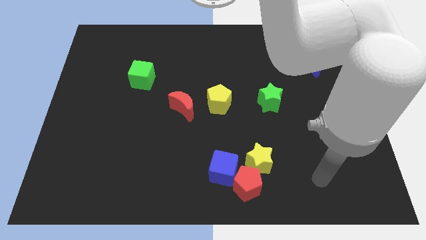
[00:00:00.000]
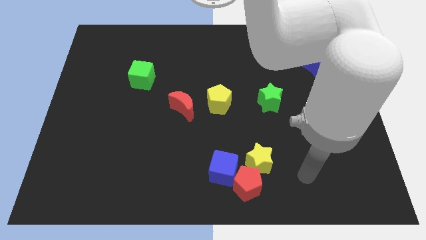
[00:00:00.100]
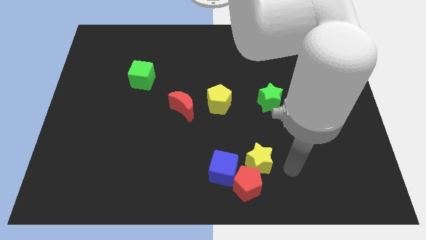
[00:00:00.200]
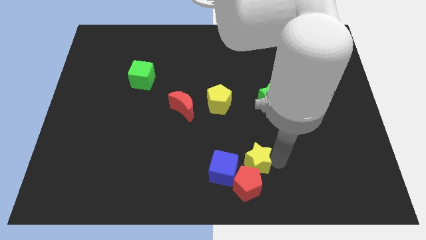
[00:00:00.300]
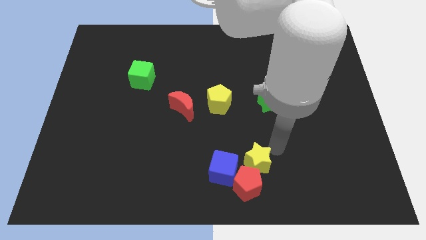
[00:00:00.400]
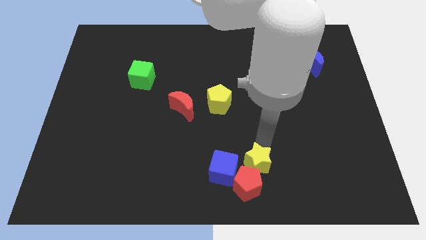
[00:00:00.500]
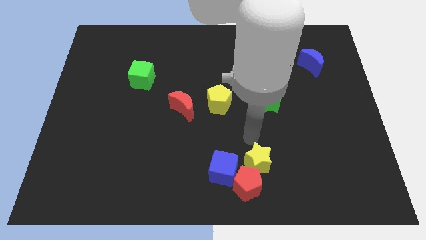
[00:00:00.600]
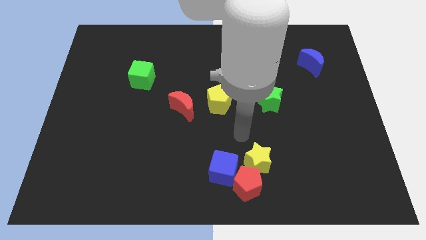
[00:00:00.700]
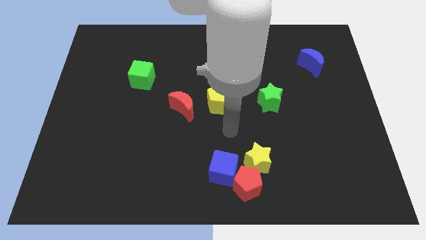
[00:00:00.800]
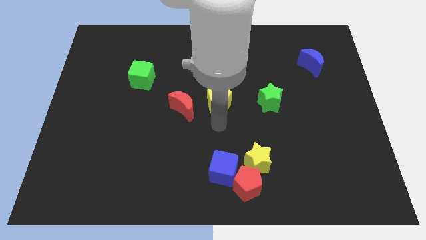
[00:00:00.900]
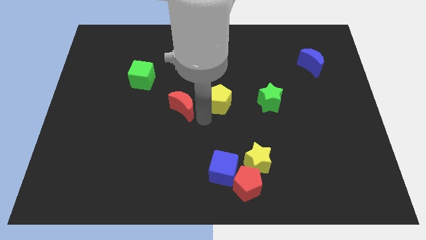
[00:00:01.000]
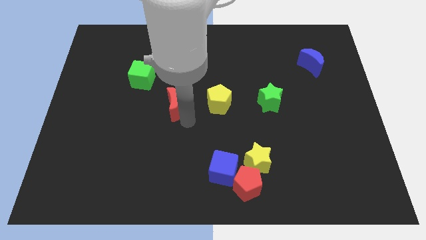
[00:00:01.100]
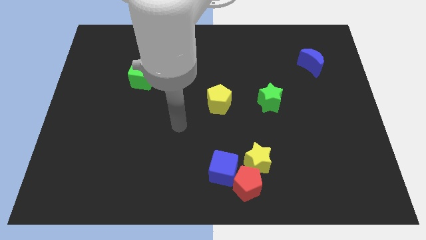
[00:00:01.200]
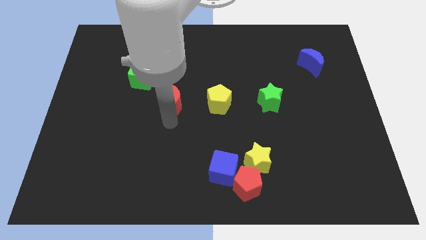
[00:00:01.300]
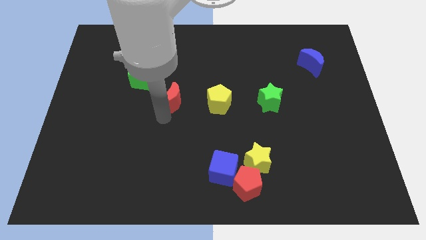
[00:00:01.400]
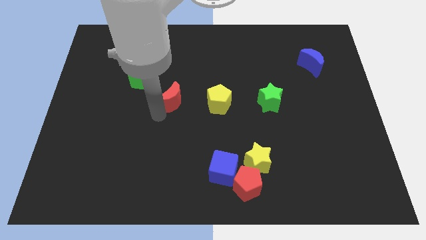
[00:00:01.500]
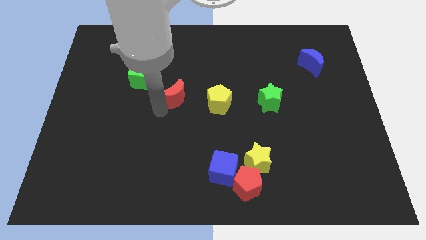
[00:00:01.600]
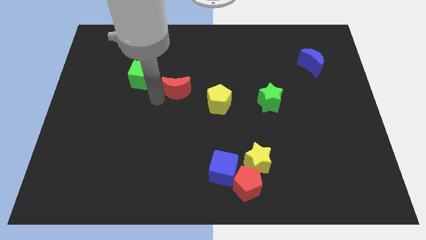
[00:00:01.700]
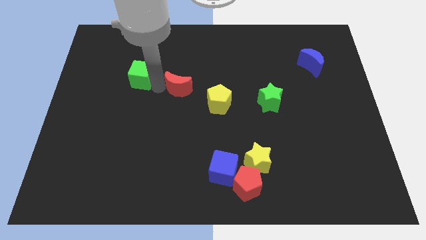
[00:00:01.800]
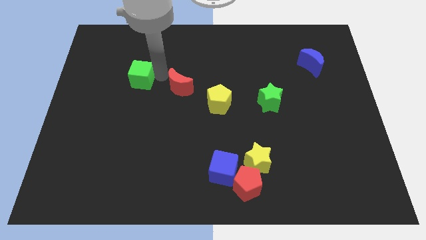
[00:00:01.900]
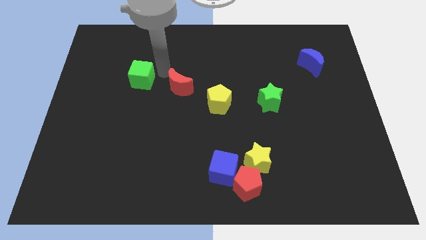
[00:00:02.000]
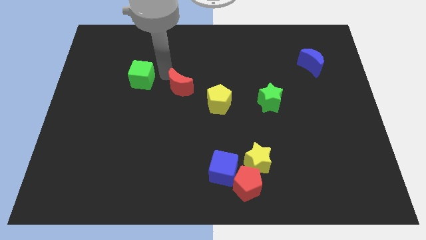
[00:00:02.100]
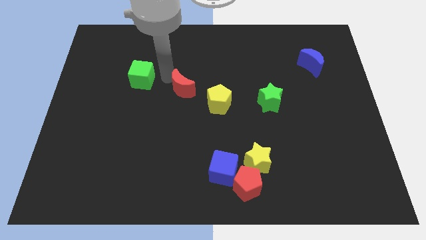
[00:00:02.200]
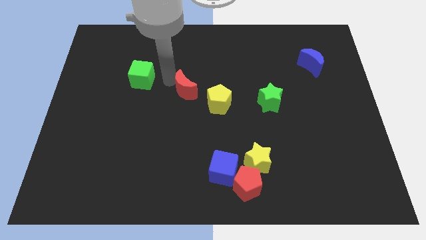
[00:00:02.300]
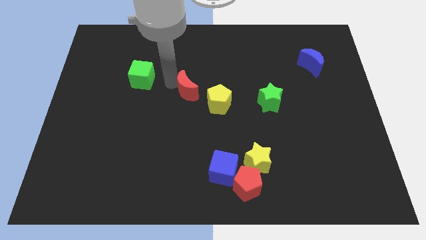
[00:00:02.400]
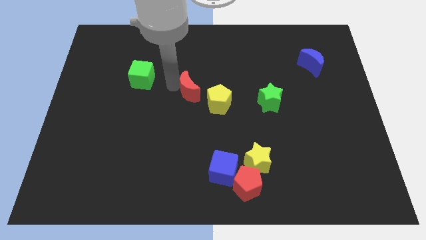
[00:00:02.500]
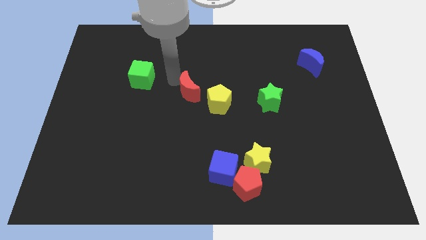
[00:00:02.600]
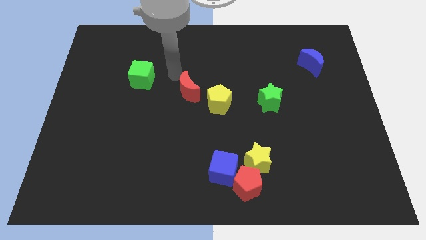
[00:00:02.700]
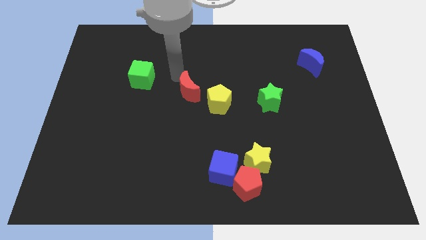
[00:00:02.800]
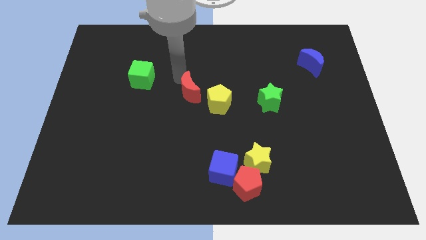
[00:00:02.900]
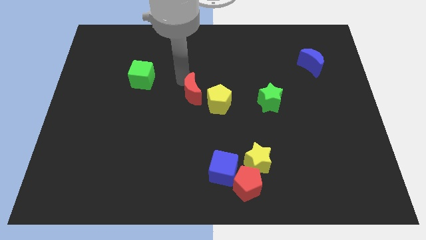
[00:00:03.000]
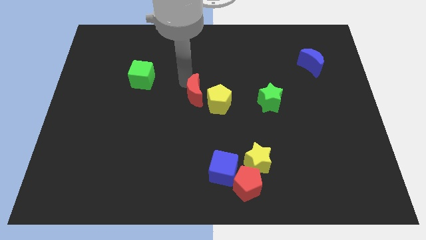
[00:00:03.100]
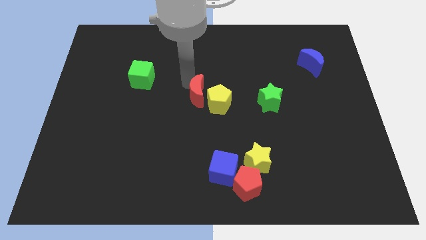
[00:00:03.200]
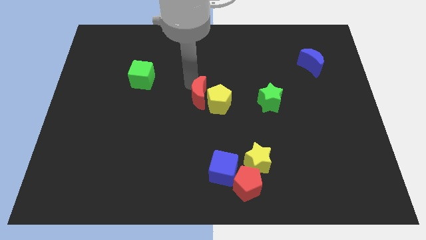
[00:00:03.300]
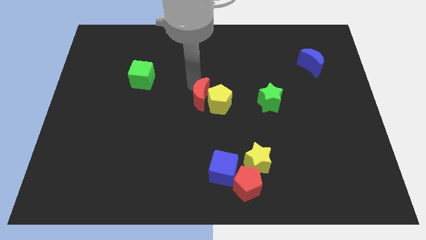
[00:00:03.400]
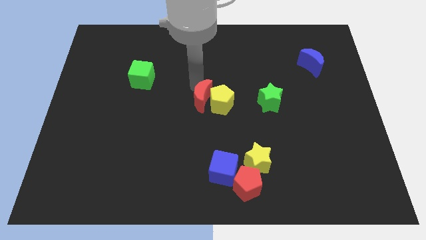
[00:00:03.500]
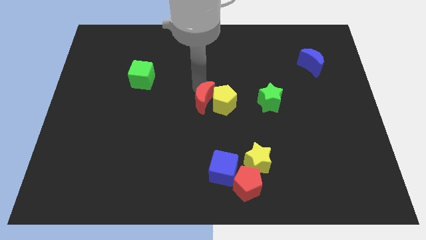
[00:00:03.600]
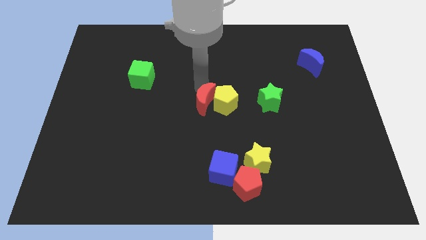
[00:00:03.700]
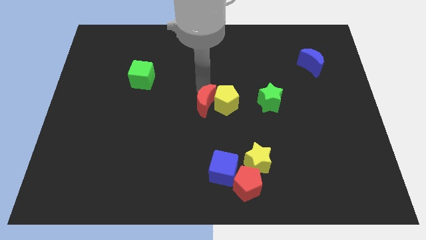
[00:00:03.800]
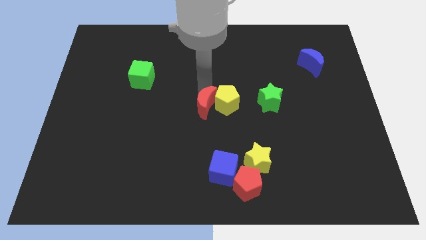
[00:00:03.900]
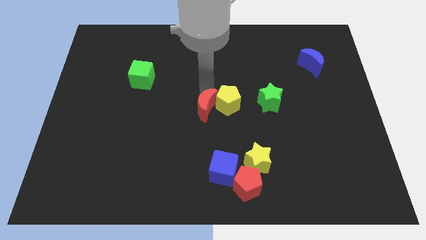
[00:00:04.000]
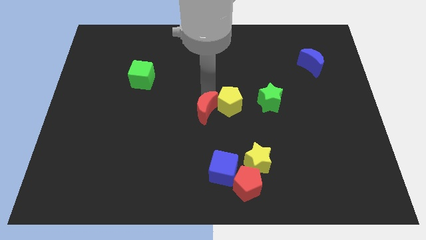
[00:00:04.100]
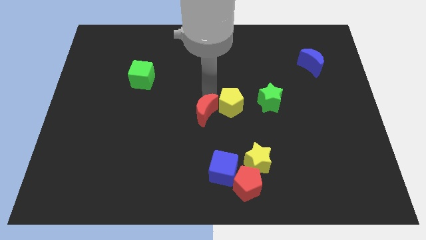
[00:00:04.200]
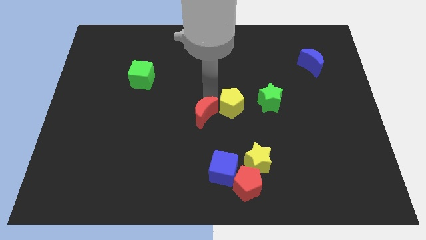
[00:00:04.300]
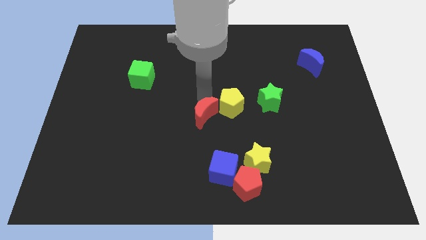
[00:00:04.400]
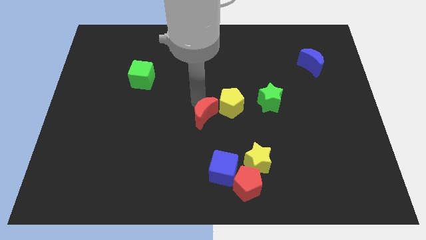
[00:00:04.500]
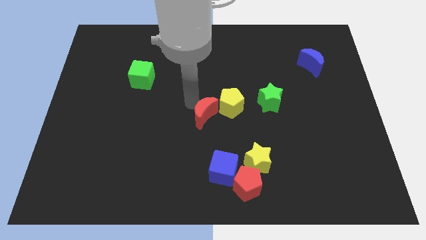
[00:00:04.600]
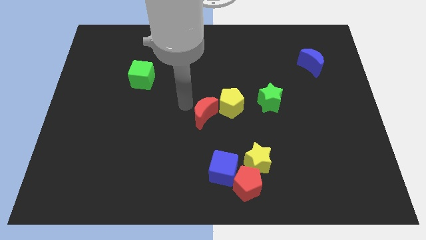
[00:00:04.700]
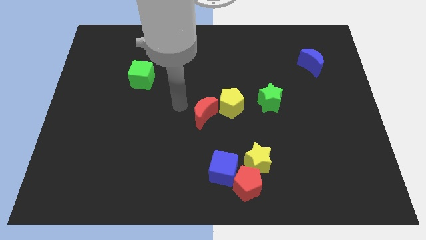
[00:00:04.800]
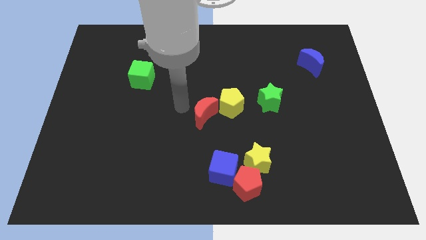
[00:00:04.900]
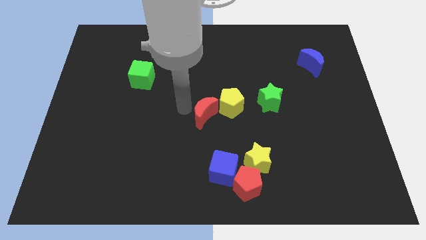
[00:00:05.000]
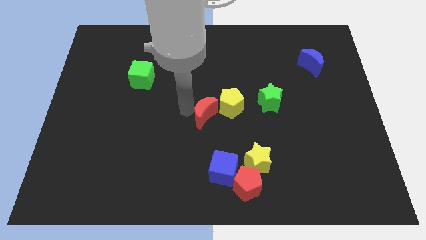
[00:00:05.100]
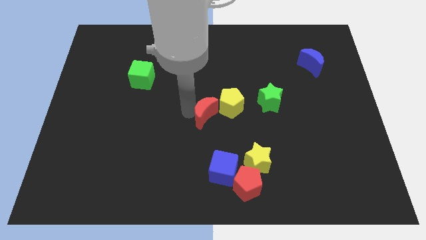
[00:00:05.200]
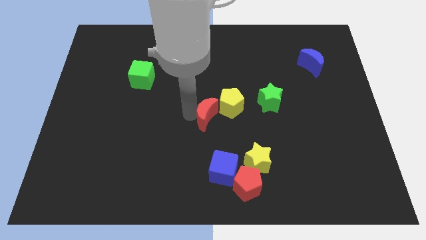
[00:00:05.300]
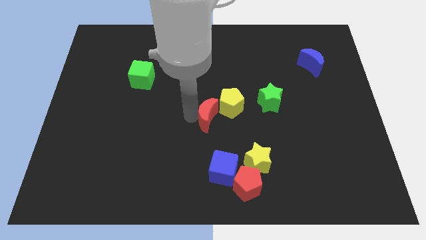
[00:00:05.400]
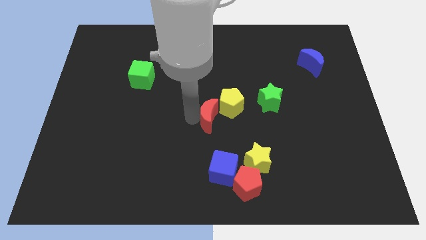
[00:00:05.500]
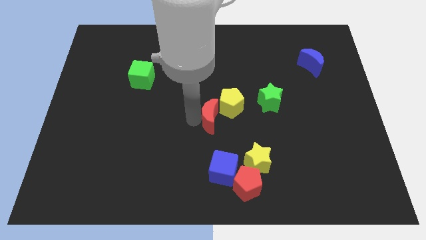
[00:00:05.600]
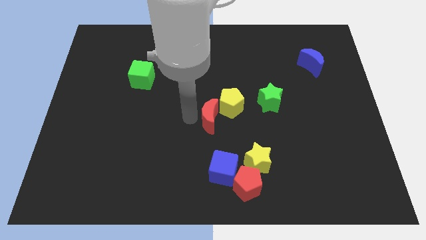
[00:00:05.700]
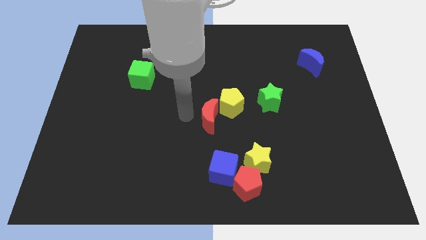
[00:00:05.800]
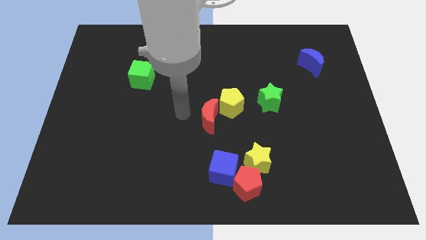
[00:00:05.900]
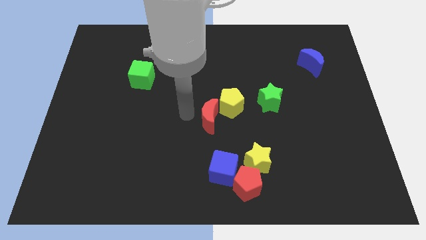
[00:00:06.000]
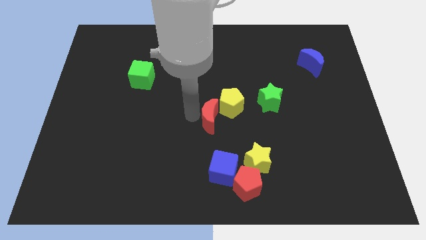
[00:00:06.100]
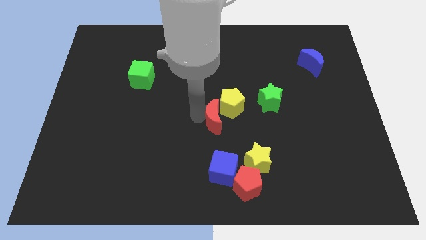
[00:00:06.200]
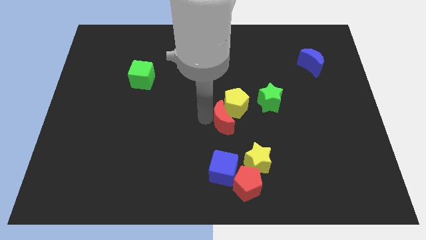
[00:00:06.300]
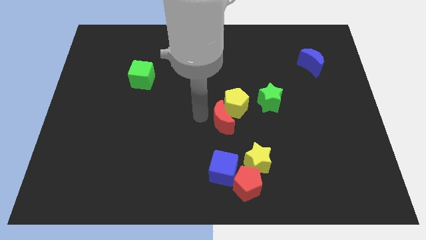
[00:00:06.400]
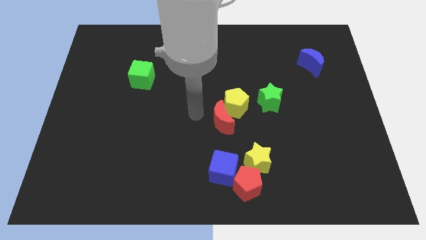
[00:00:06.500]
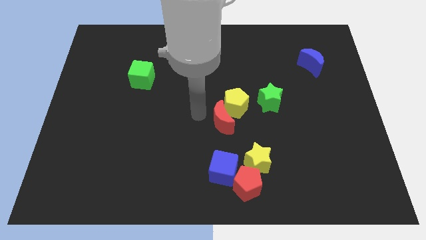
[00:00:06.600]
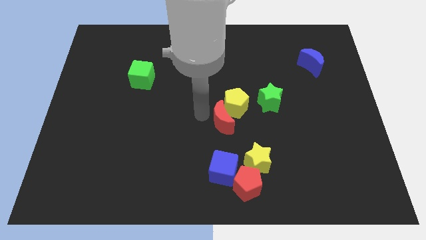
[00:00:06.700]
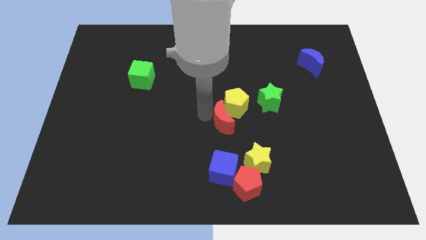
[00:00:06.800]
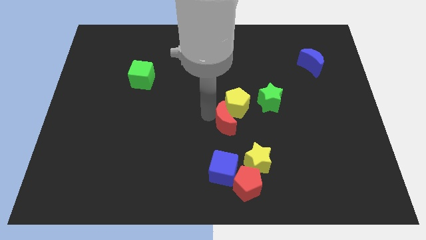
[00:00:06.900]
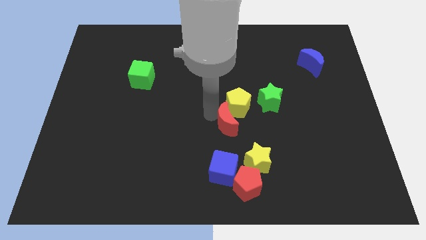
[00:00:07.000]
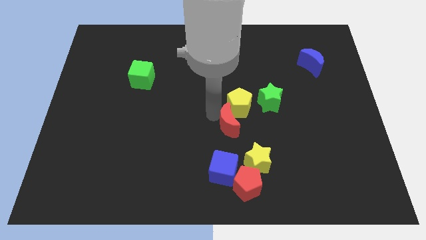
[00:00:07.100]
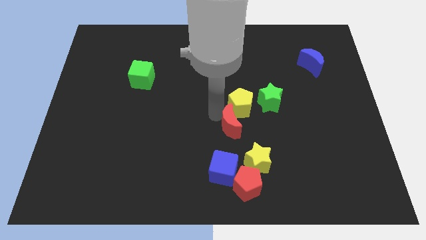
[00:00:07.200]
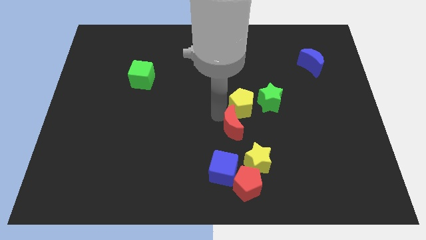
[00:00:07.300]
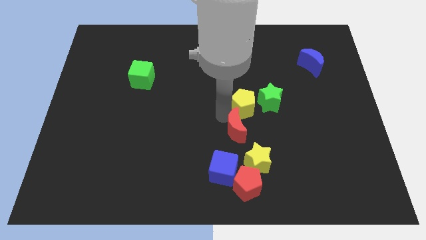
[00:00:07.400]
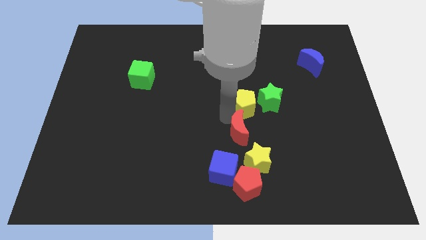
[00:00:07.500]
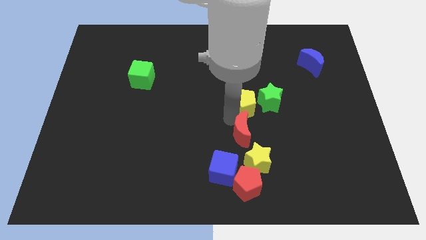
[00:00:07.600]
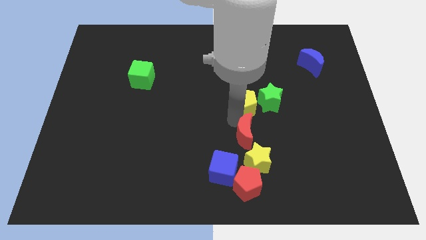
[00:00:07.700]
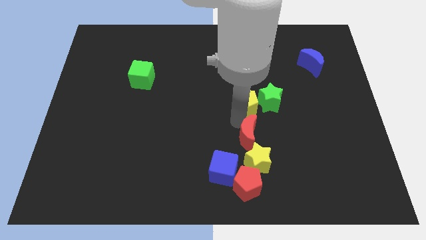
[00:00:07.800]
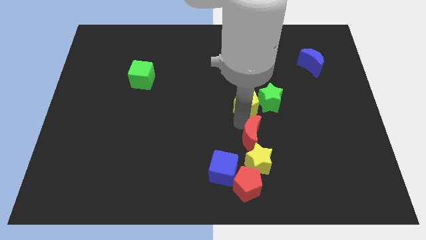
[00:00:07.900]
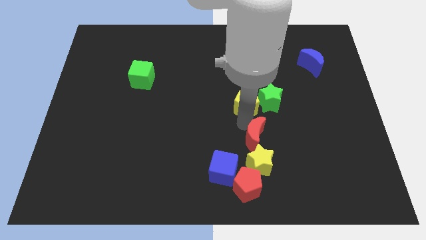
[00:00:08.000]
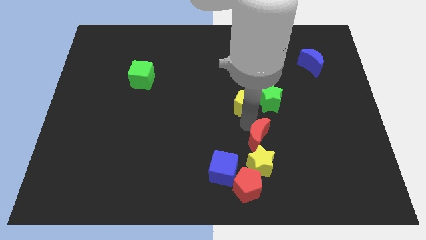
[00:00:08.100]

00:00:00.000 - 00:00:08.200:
put the red moon to the top right of the yellow star
